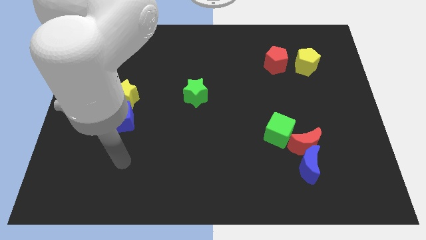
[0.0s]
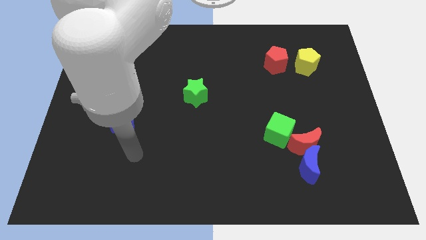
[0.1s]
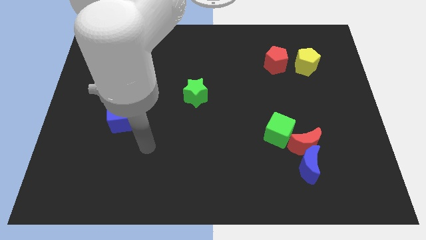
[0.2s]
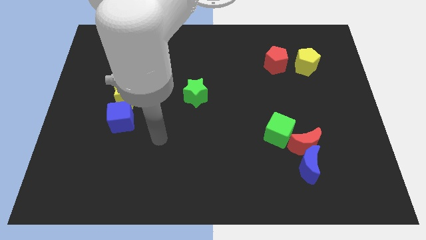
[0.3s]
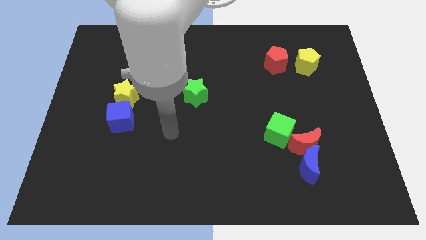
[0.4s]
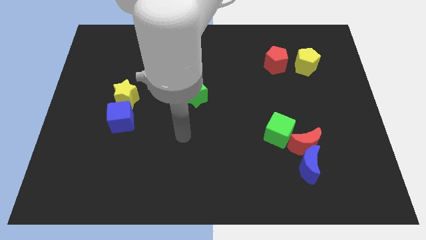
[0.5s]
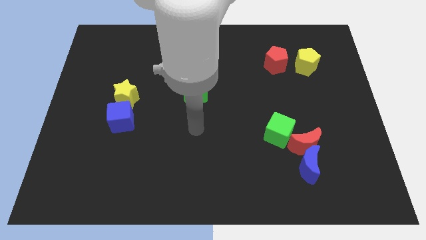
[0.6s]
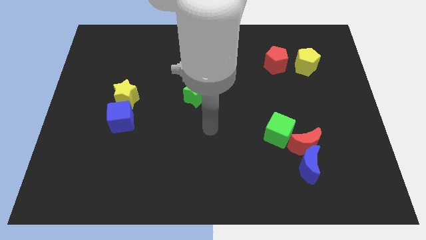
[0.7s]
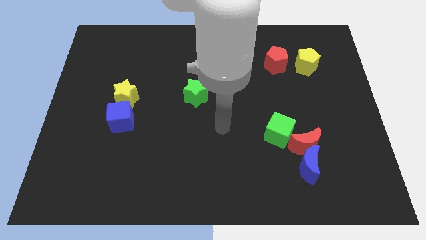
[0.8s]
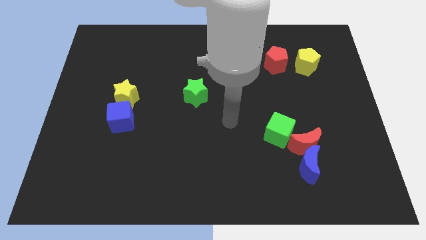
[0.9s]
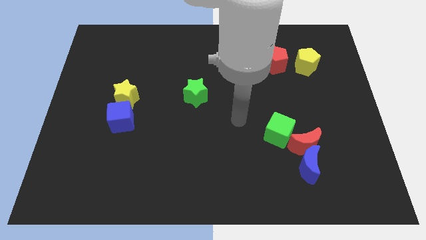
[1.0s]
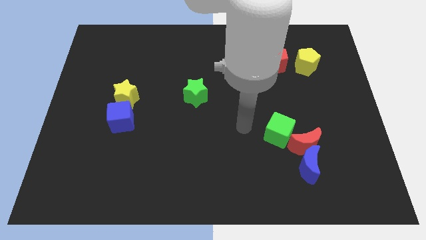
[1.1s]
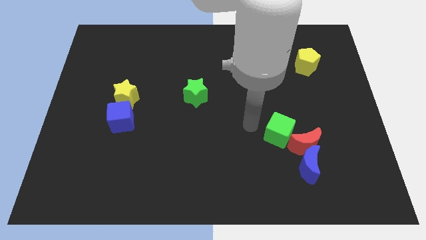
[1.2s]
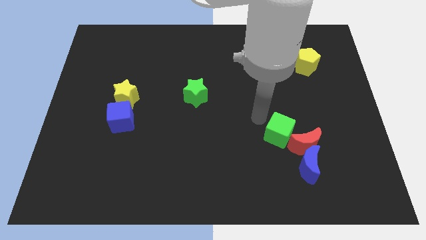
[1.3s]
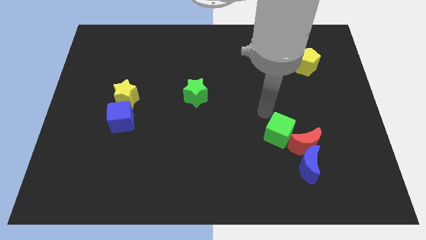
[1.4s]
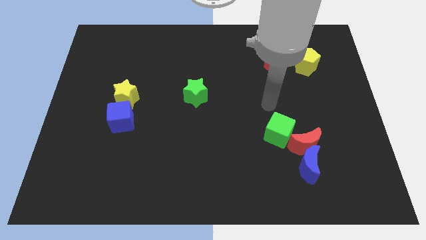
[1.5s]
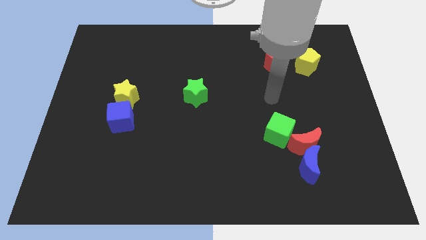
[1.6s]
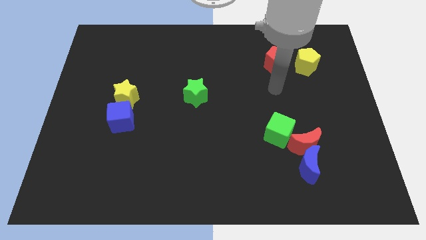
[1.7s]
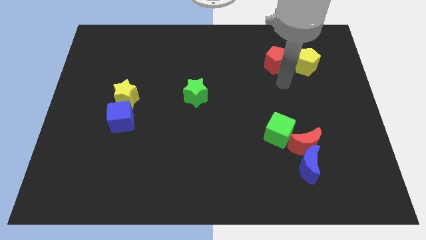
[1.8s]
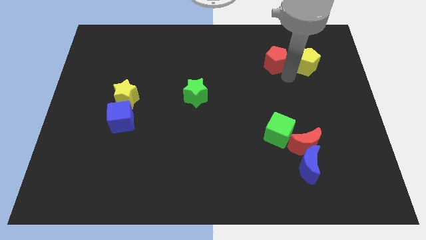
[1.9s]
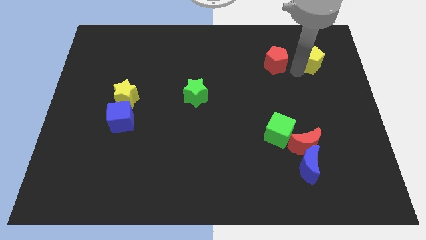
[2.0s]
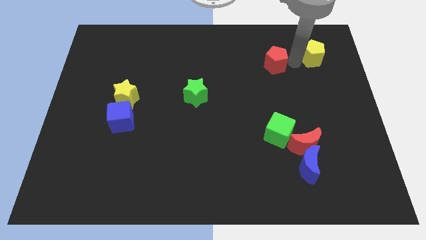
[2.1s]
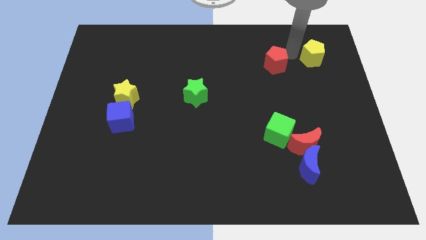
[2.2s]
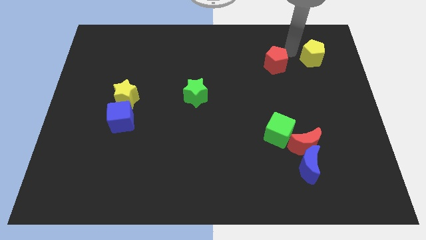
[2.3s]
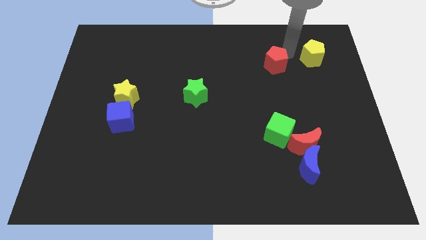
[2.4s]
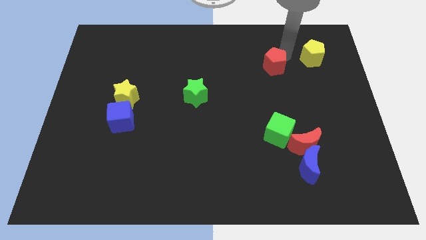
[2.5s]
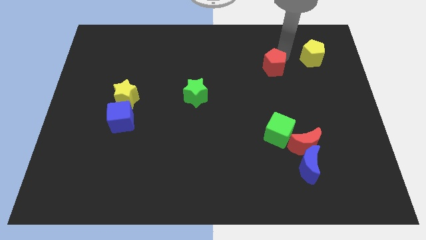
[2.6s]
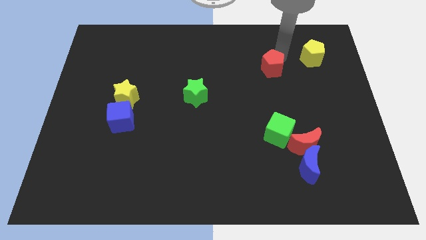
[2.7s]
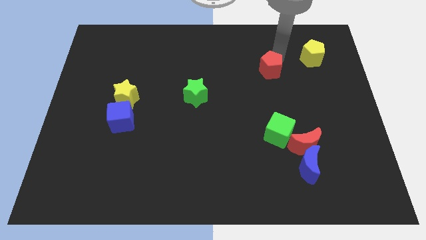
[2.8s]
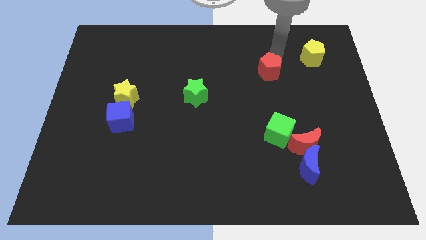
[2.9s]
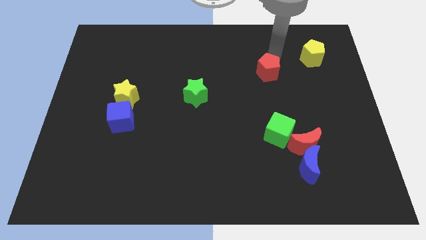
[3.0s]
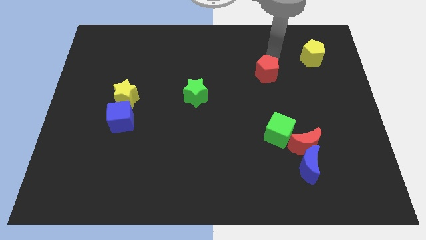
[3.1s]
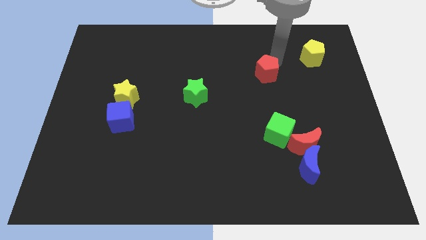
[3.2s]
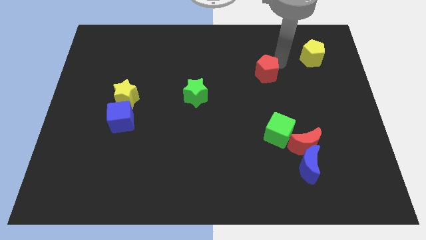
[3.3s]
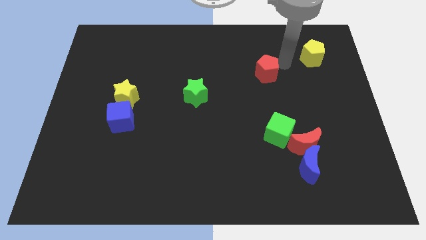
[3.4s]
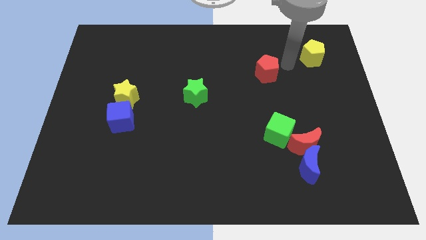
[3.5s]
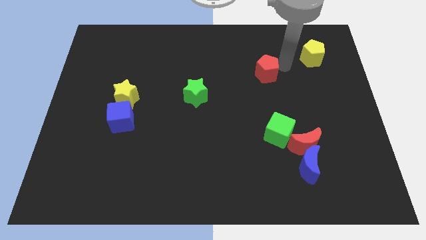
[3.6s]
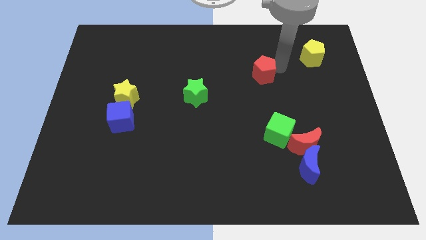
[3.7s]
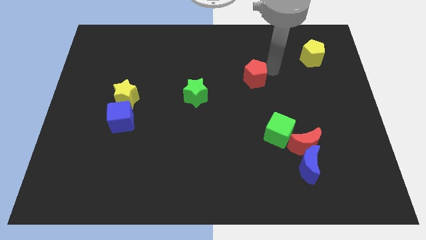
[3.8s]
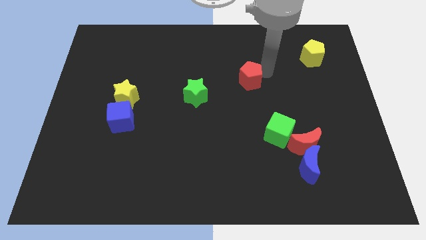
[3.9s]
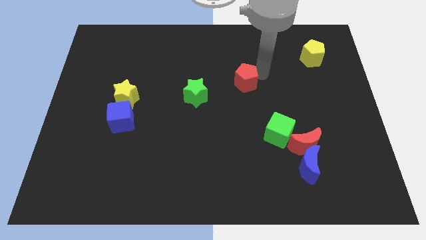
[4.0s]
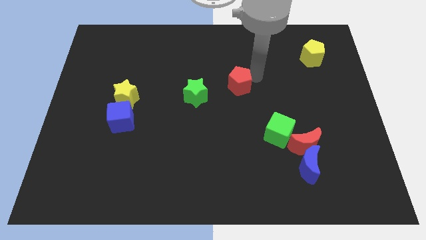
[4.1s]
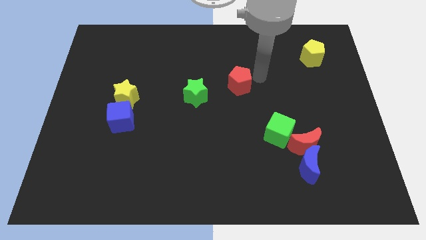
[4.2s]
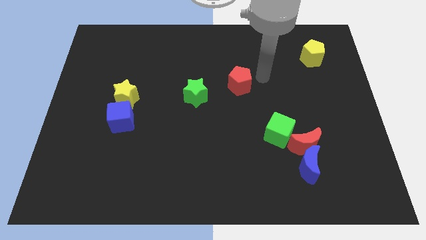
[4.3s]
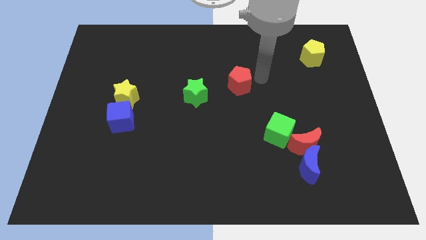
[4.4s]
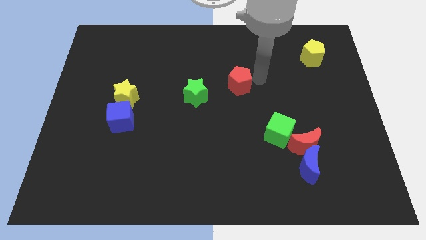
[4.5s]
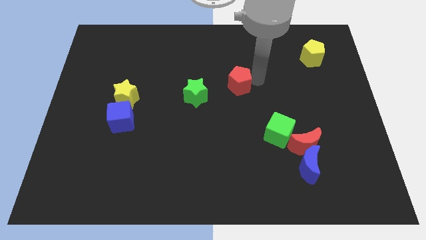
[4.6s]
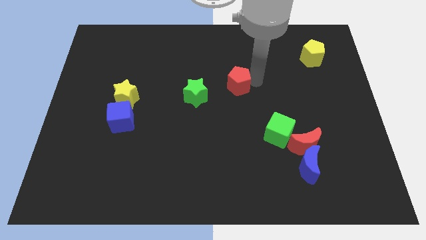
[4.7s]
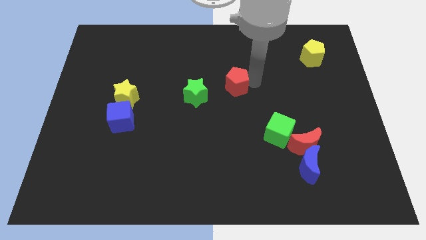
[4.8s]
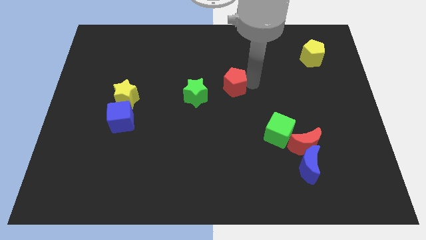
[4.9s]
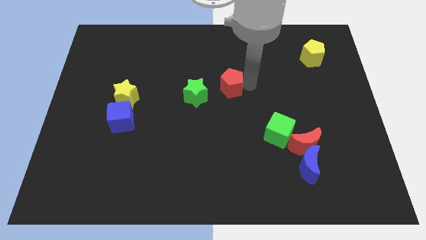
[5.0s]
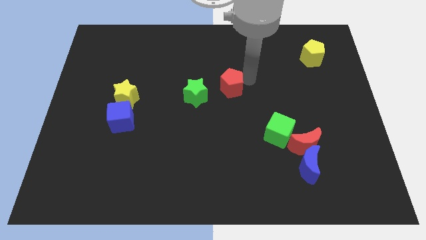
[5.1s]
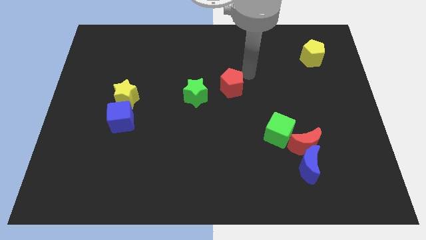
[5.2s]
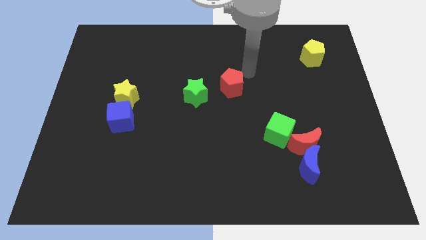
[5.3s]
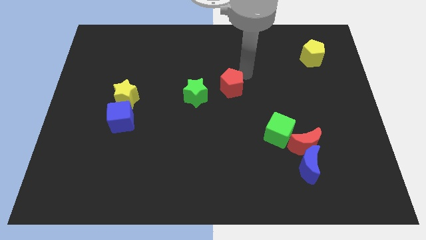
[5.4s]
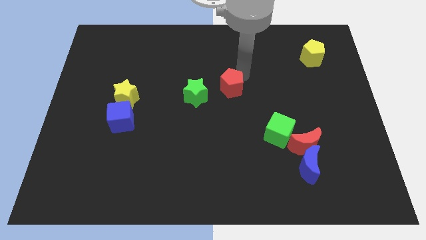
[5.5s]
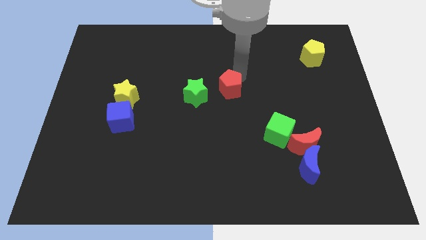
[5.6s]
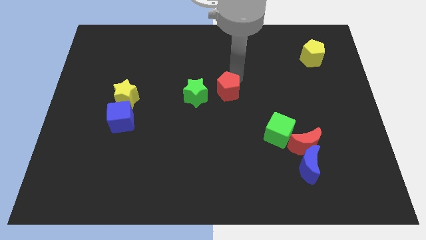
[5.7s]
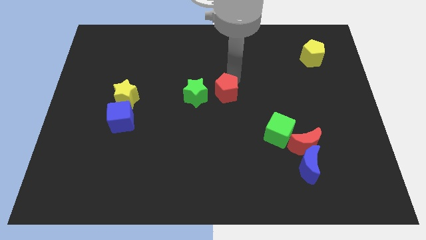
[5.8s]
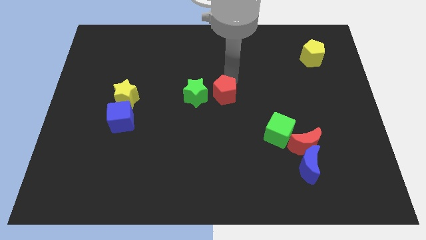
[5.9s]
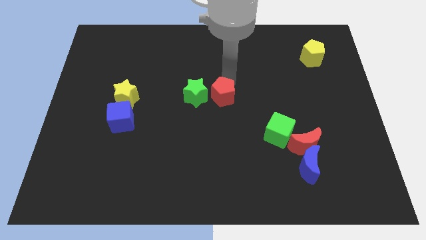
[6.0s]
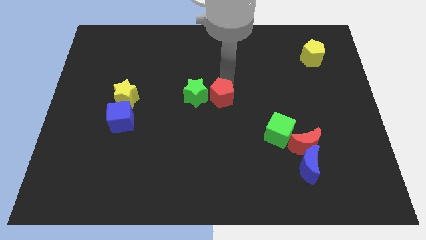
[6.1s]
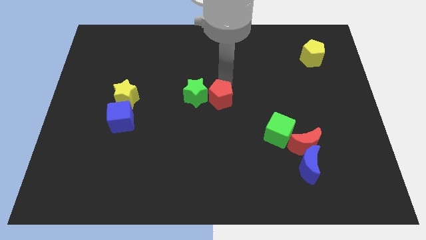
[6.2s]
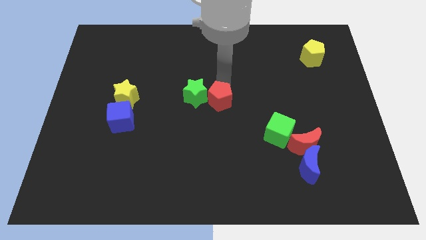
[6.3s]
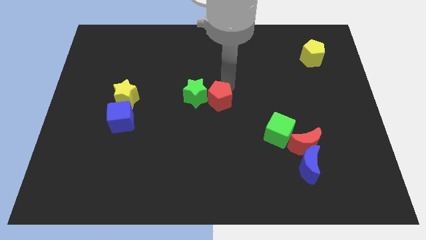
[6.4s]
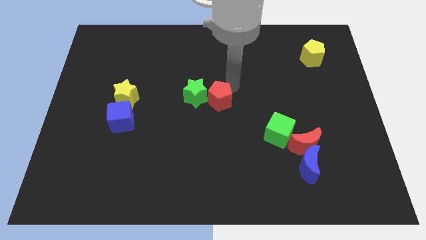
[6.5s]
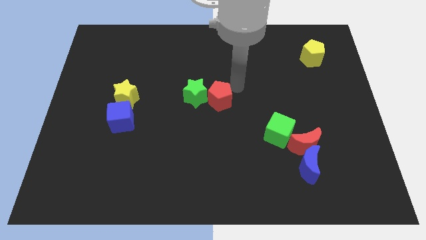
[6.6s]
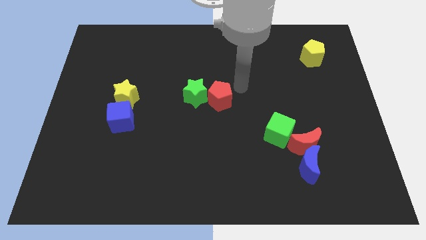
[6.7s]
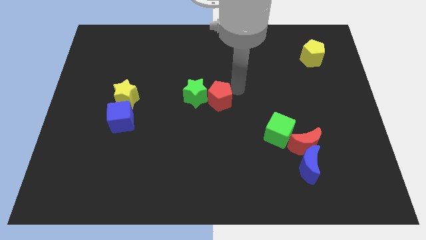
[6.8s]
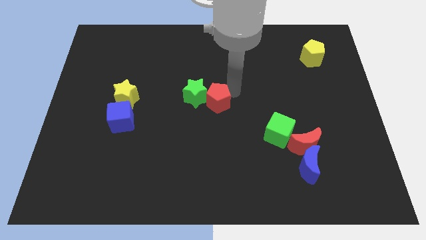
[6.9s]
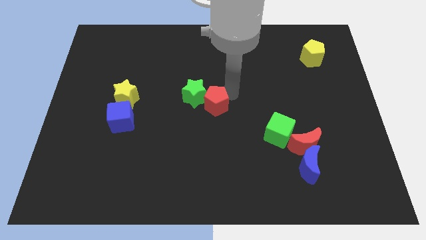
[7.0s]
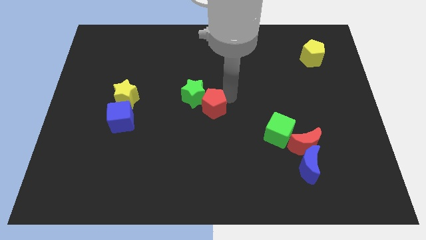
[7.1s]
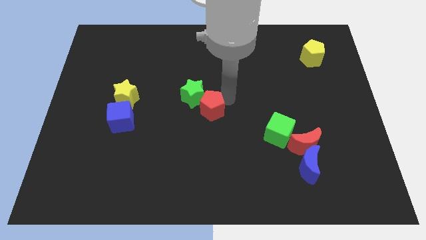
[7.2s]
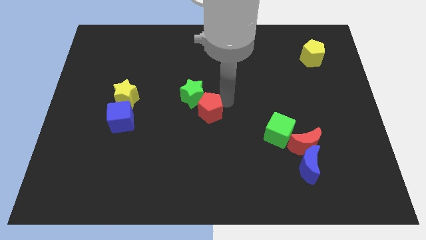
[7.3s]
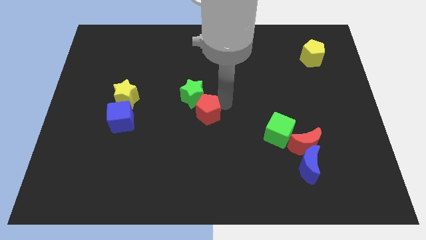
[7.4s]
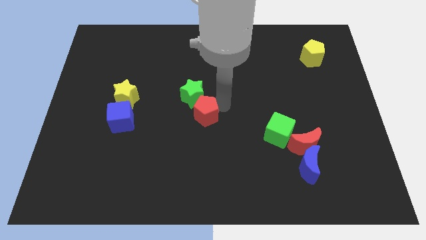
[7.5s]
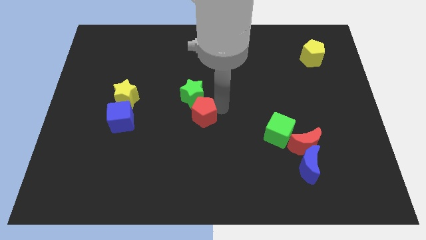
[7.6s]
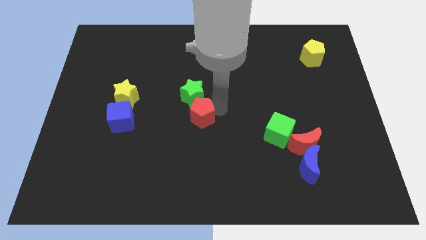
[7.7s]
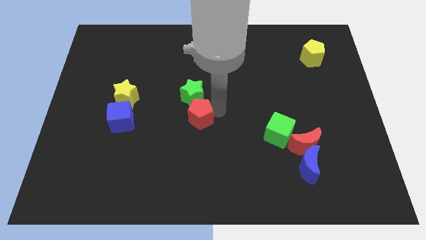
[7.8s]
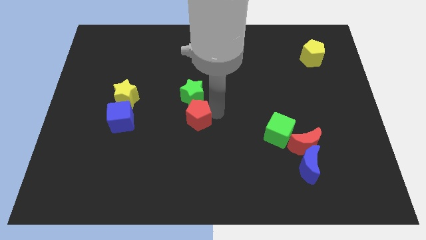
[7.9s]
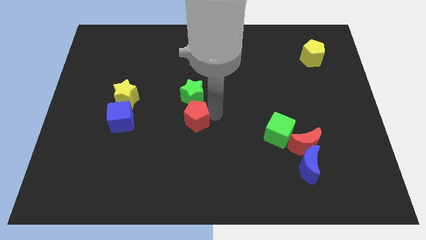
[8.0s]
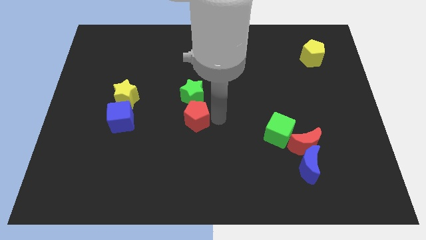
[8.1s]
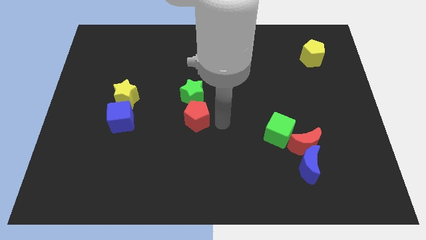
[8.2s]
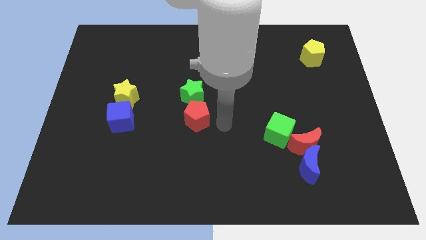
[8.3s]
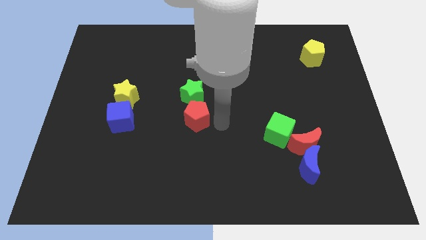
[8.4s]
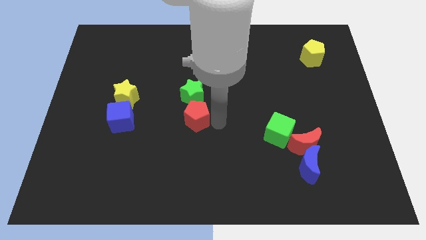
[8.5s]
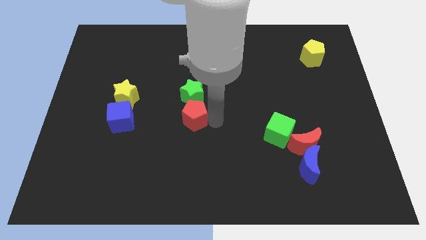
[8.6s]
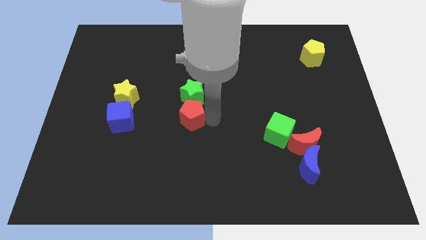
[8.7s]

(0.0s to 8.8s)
push the red pentagon diagonally down and to the left of the green star
